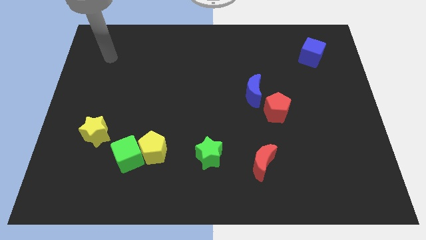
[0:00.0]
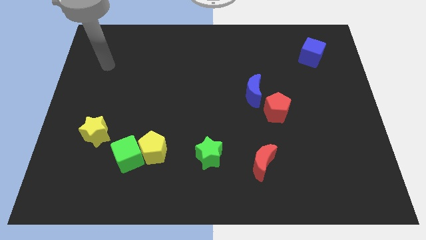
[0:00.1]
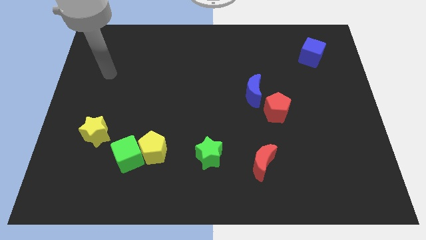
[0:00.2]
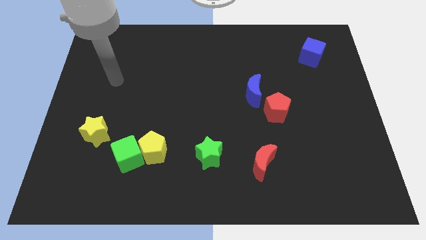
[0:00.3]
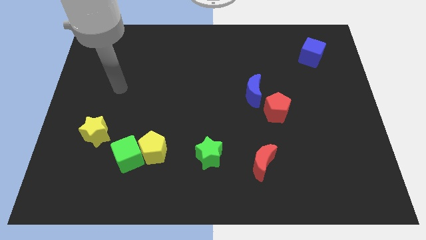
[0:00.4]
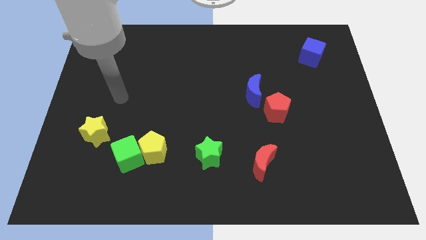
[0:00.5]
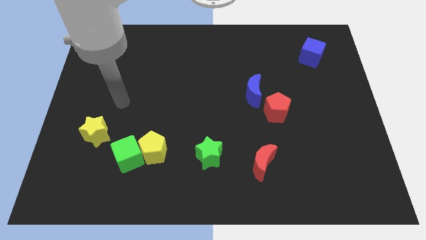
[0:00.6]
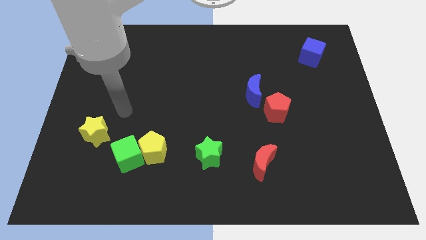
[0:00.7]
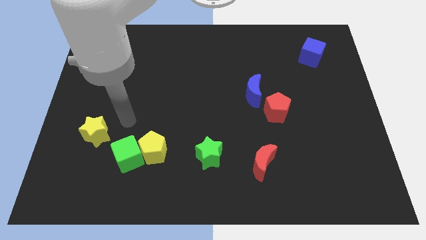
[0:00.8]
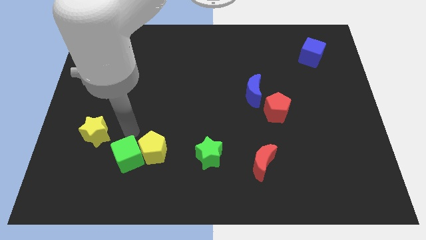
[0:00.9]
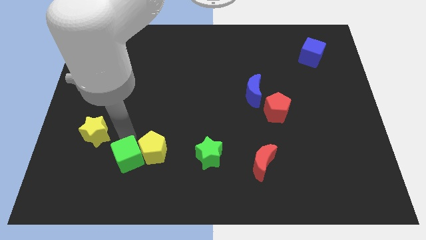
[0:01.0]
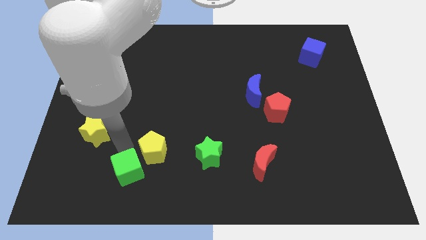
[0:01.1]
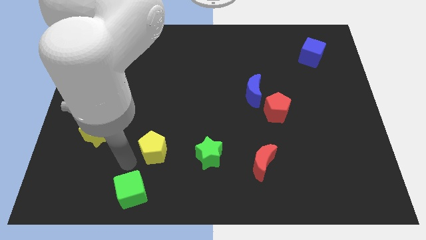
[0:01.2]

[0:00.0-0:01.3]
move the yellow pentagon away from the green cube

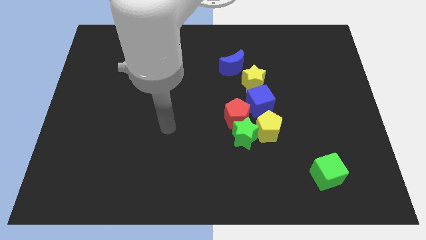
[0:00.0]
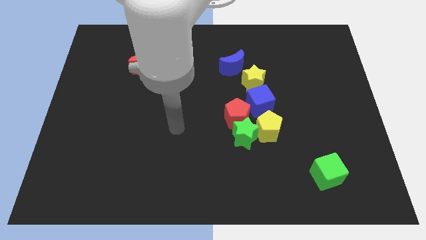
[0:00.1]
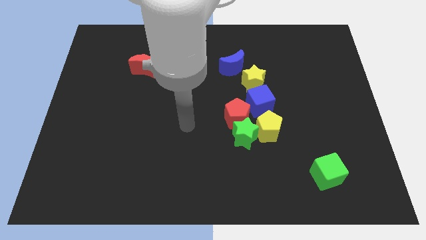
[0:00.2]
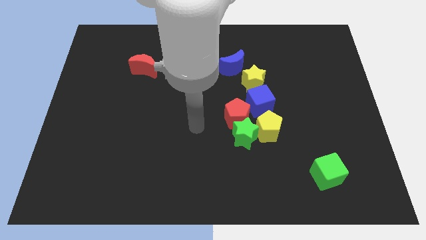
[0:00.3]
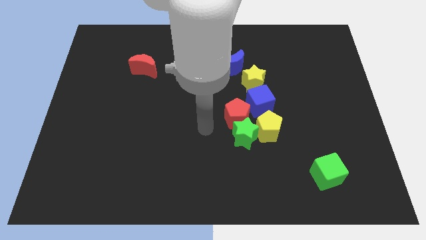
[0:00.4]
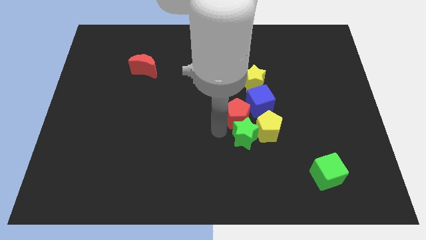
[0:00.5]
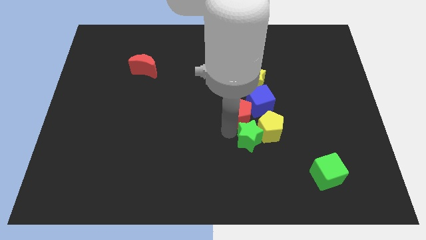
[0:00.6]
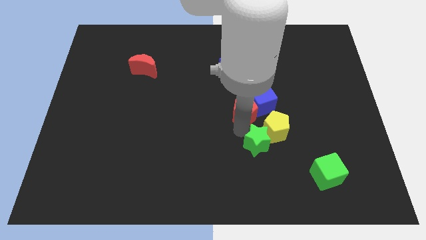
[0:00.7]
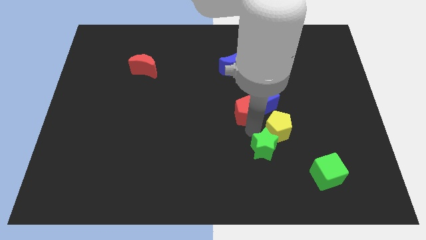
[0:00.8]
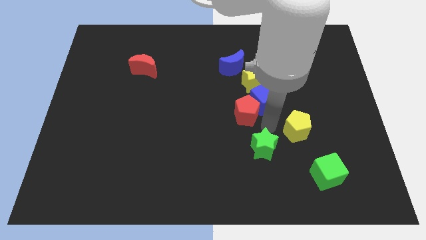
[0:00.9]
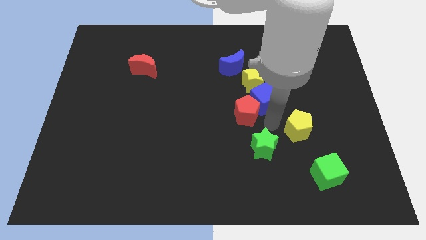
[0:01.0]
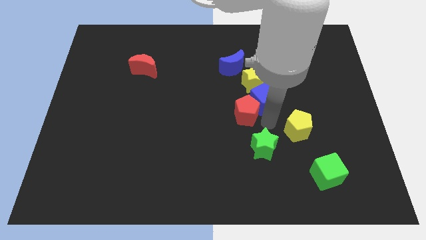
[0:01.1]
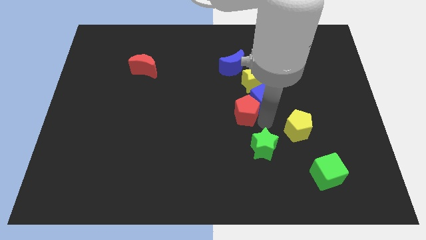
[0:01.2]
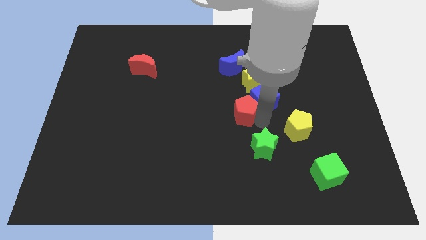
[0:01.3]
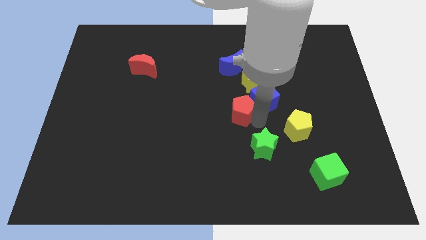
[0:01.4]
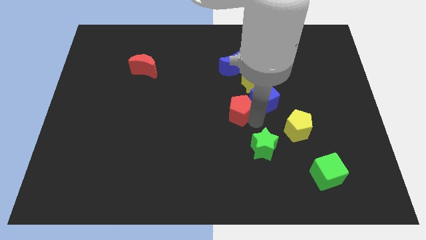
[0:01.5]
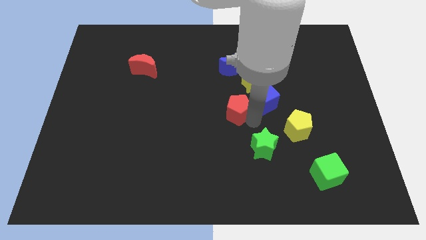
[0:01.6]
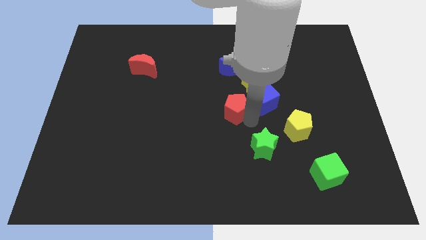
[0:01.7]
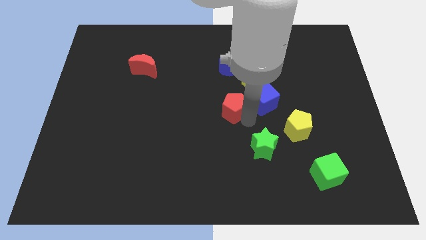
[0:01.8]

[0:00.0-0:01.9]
pull the red pentagon apart from the clump

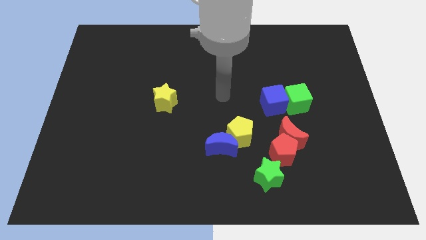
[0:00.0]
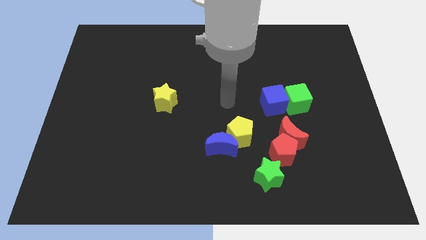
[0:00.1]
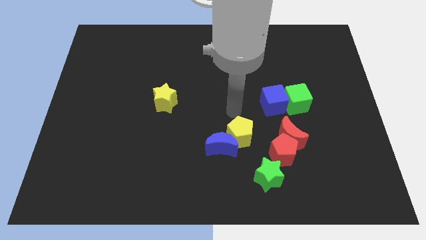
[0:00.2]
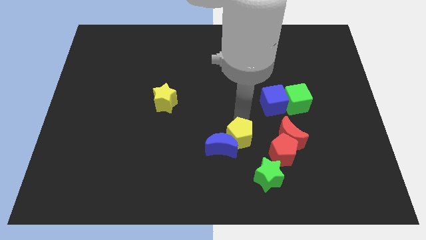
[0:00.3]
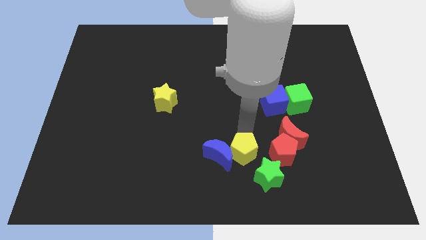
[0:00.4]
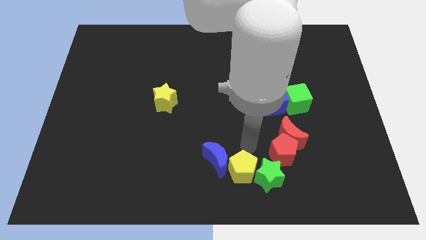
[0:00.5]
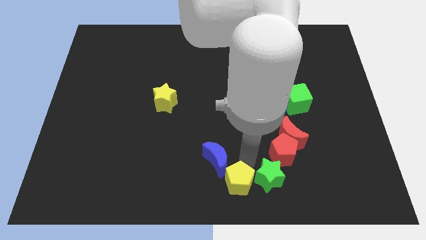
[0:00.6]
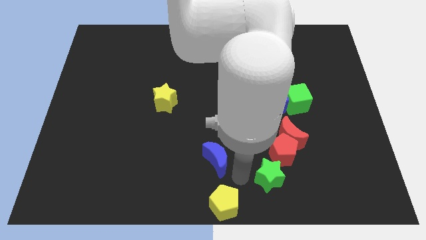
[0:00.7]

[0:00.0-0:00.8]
separate the blue moon from the yellow pentagon

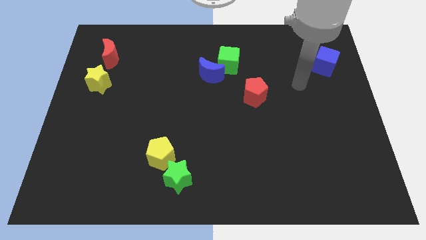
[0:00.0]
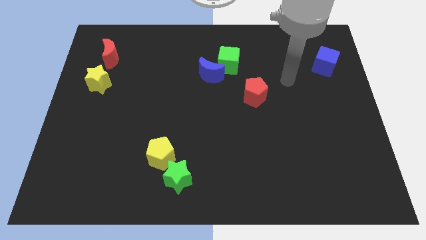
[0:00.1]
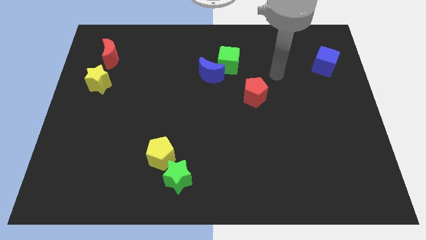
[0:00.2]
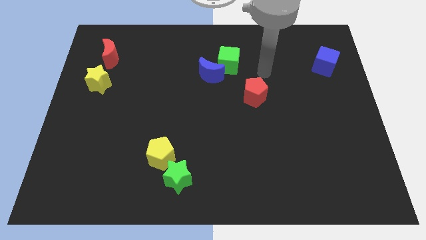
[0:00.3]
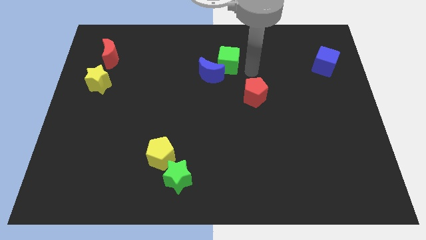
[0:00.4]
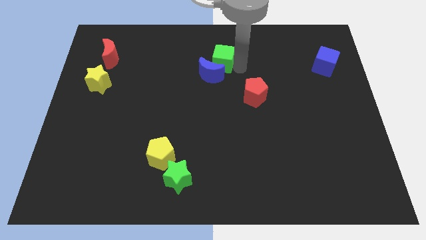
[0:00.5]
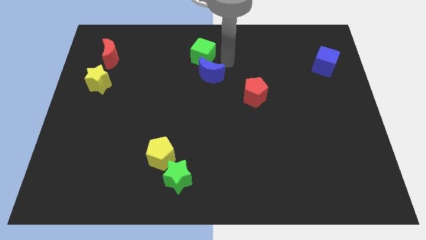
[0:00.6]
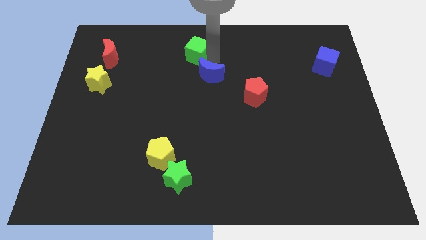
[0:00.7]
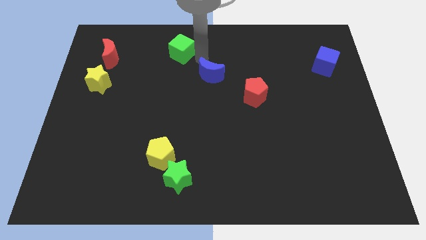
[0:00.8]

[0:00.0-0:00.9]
pull the blue moon apart from the green cube

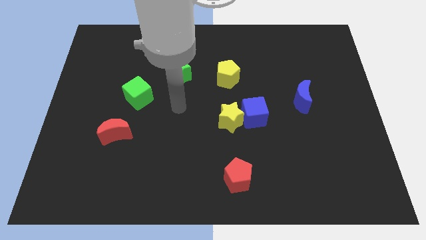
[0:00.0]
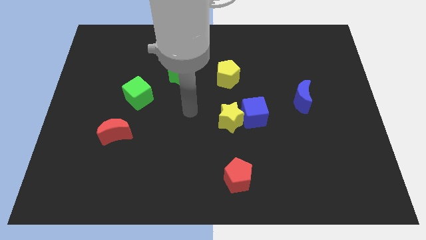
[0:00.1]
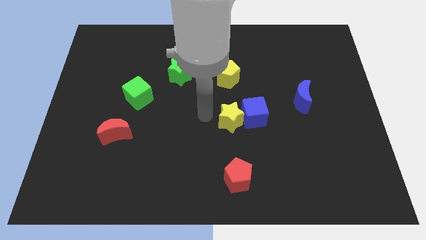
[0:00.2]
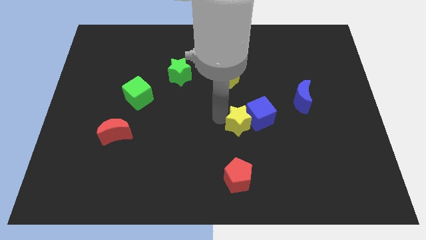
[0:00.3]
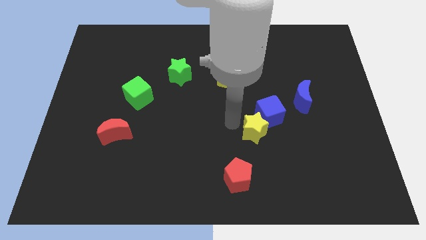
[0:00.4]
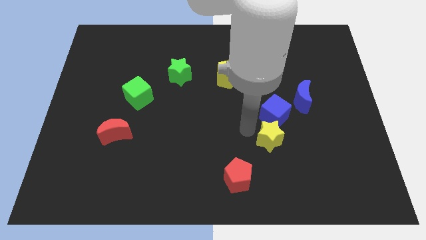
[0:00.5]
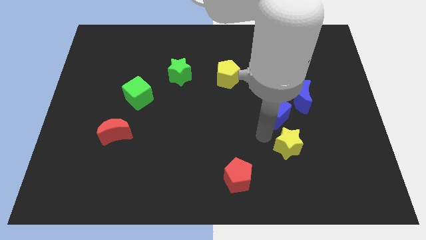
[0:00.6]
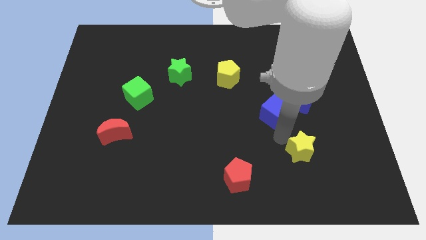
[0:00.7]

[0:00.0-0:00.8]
move the blue cube away from the yellow star

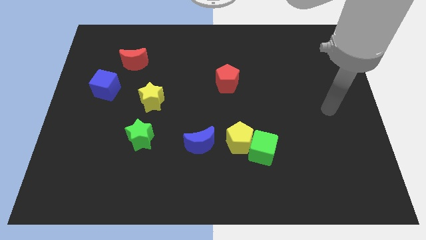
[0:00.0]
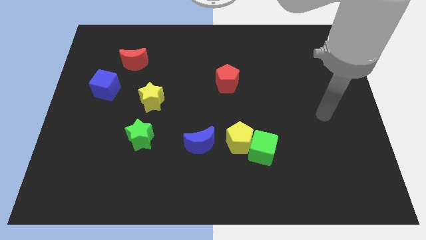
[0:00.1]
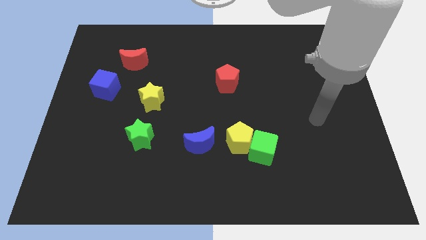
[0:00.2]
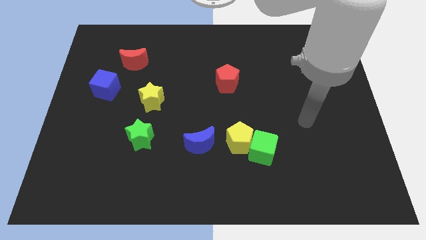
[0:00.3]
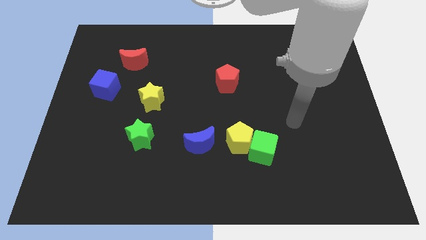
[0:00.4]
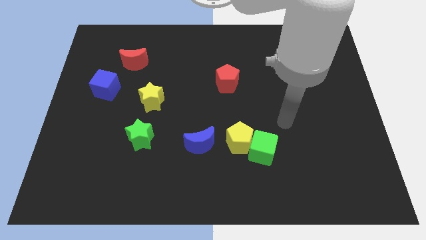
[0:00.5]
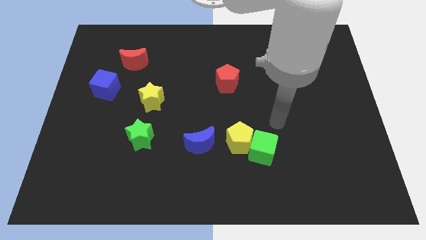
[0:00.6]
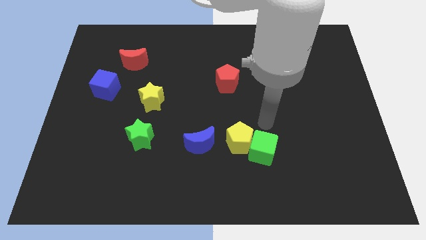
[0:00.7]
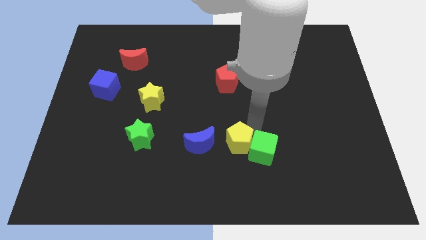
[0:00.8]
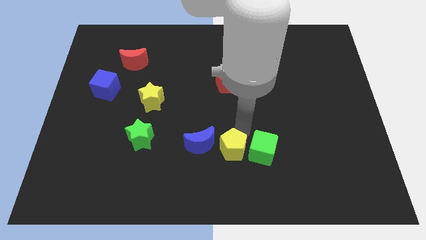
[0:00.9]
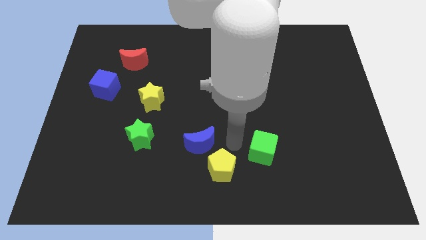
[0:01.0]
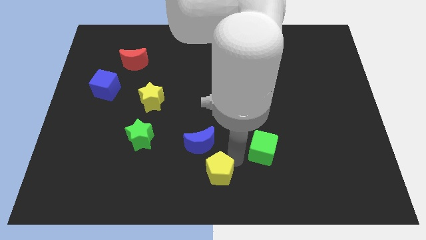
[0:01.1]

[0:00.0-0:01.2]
pull the green cube apart from the yellow pentagon

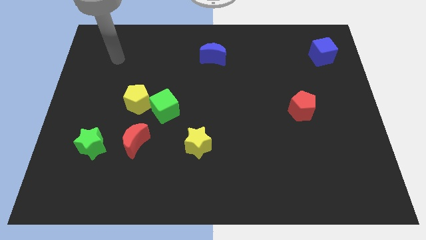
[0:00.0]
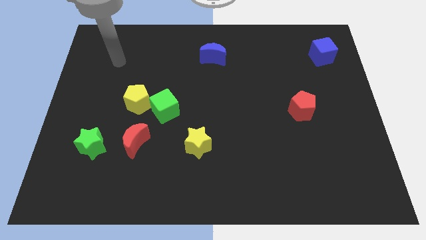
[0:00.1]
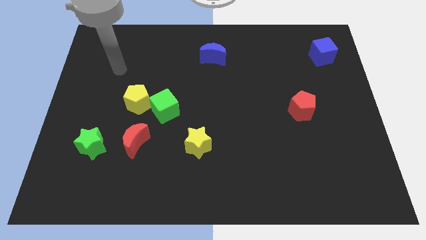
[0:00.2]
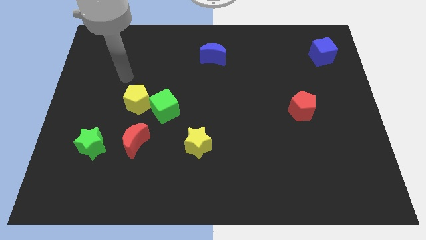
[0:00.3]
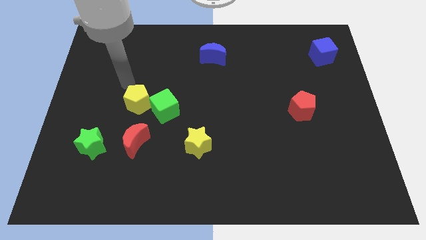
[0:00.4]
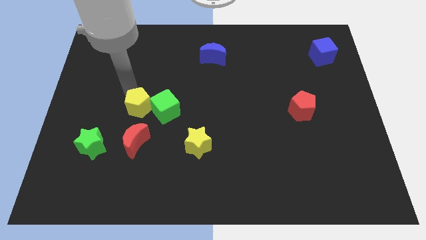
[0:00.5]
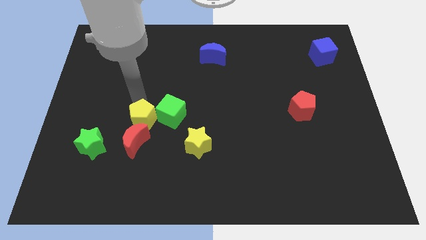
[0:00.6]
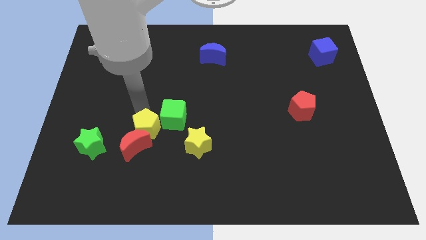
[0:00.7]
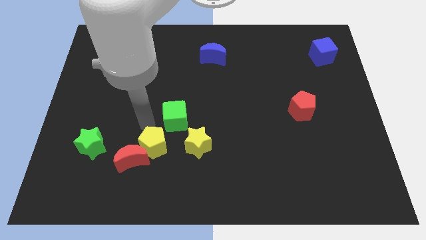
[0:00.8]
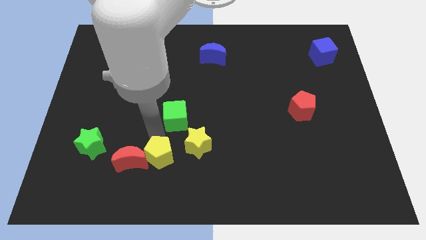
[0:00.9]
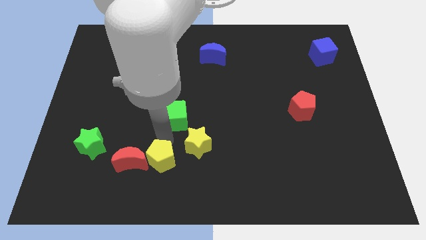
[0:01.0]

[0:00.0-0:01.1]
separate the green cube from the yellow pentagon

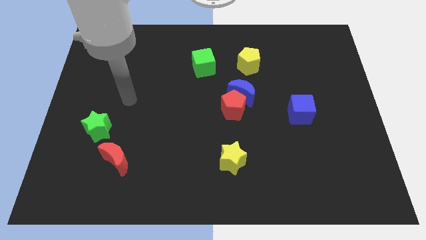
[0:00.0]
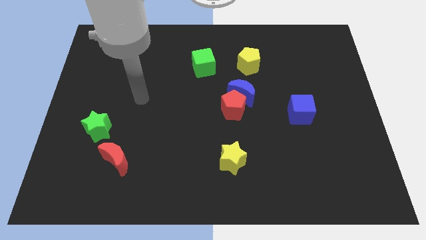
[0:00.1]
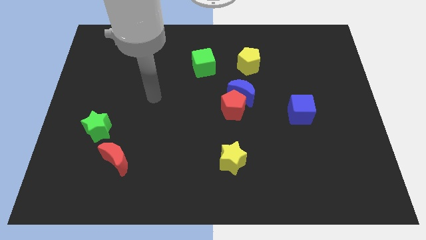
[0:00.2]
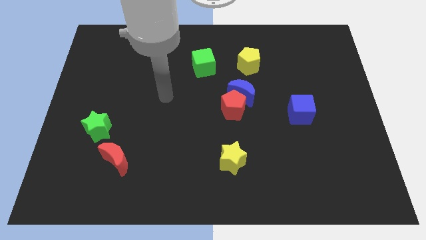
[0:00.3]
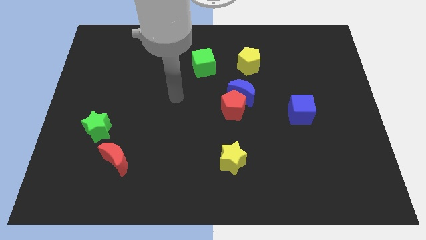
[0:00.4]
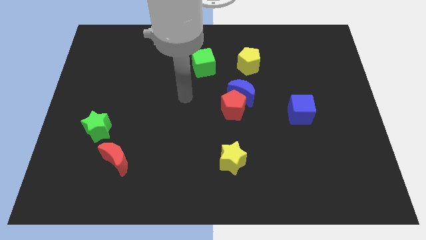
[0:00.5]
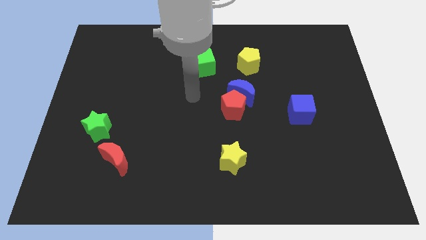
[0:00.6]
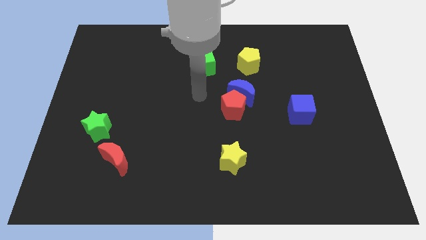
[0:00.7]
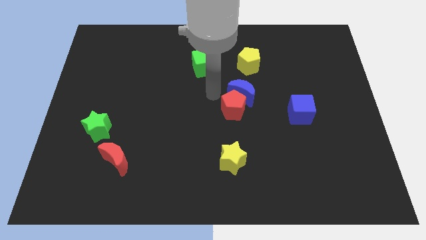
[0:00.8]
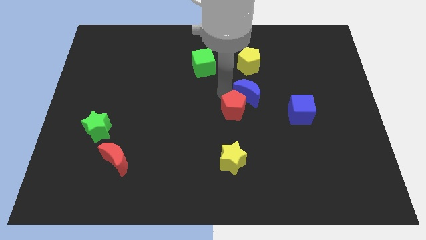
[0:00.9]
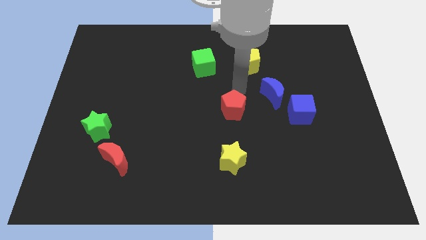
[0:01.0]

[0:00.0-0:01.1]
pull the red pentagon apart from the blue moon
